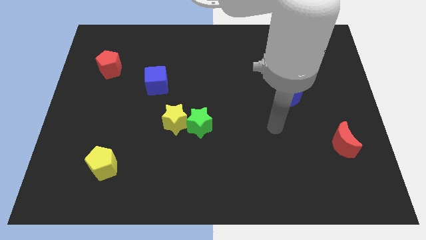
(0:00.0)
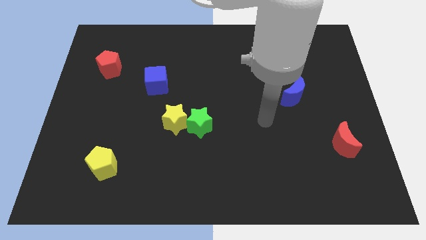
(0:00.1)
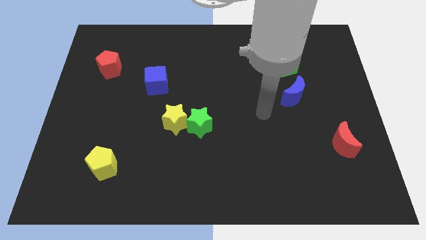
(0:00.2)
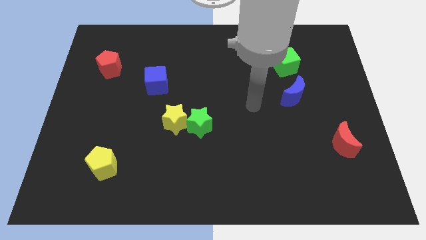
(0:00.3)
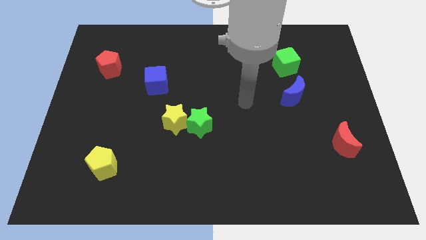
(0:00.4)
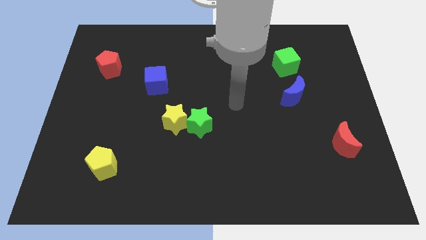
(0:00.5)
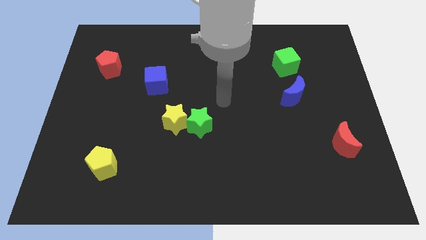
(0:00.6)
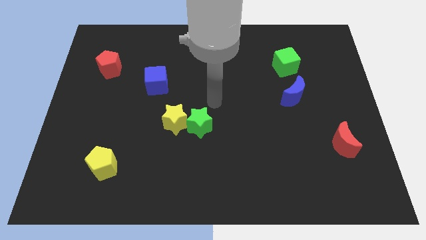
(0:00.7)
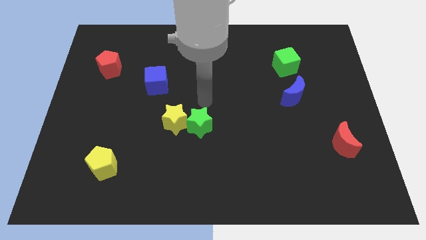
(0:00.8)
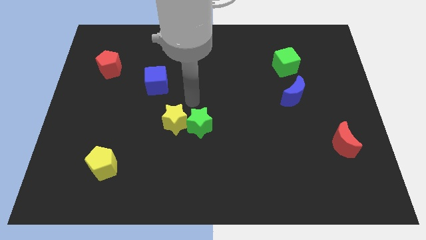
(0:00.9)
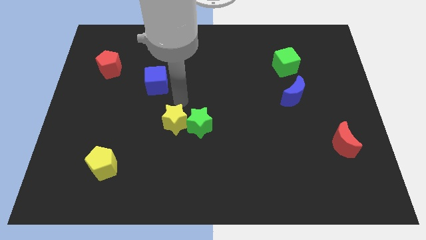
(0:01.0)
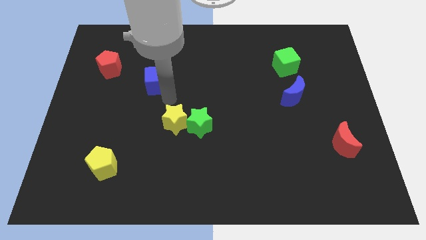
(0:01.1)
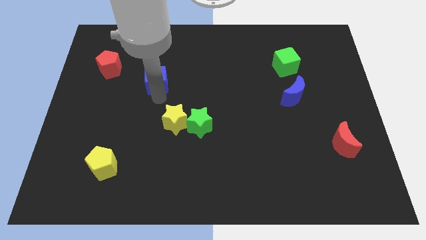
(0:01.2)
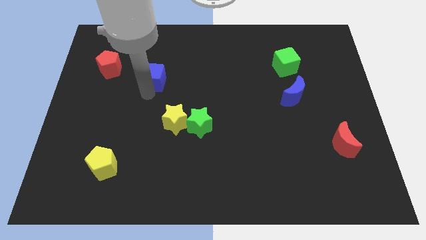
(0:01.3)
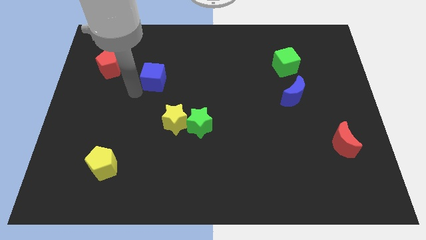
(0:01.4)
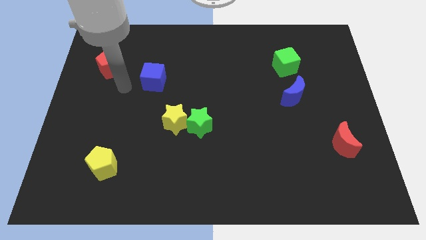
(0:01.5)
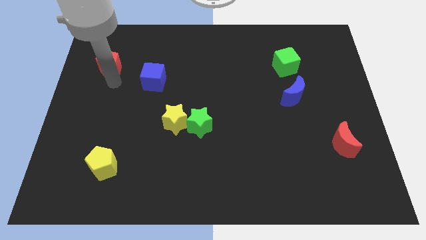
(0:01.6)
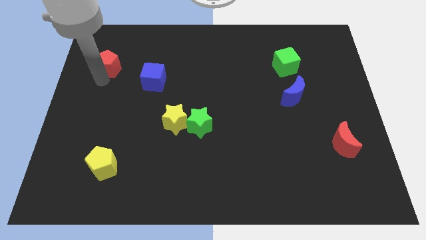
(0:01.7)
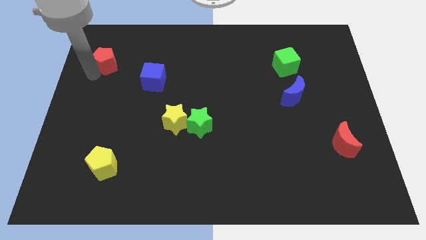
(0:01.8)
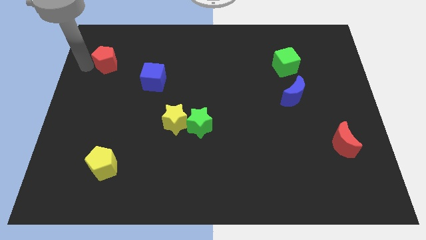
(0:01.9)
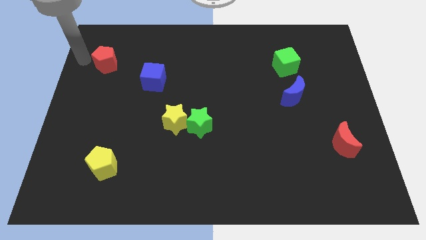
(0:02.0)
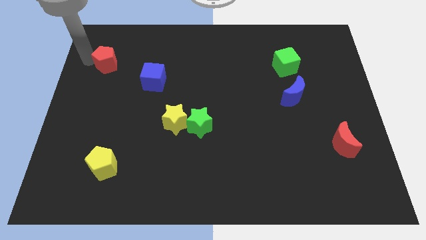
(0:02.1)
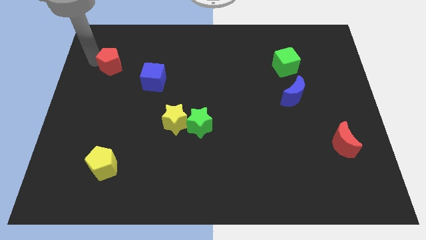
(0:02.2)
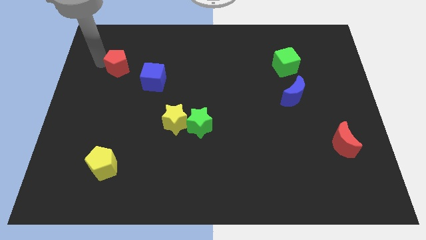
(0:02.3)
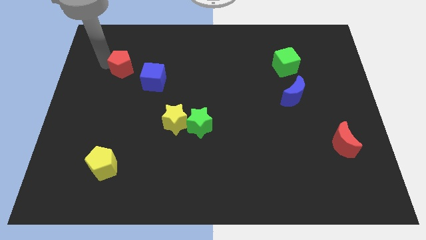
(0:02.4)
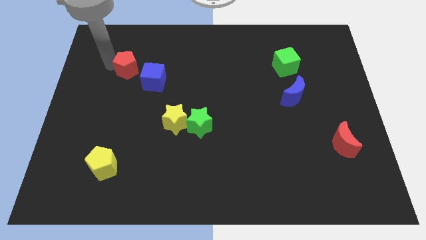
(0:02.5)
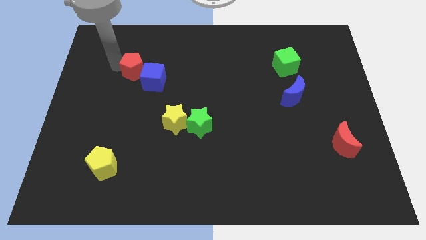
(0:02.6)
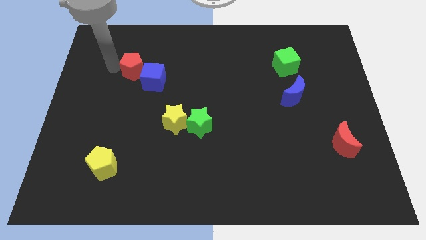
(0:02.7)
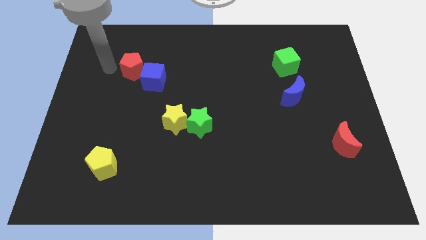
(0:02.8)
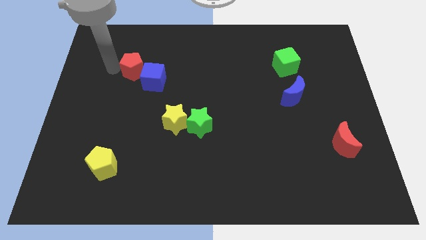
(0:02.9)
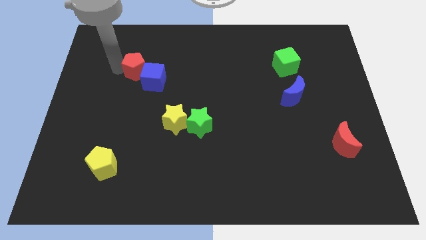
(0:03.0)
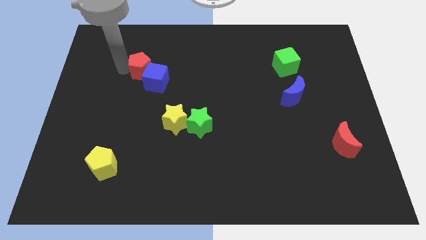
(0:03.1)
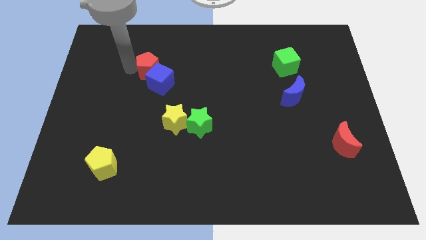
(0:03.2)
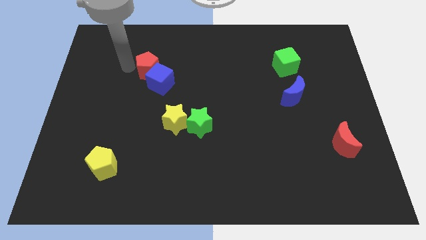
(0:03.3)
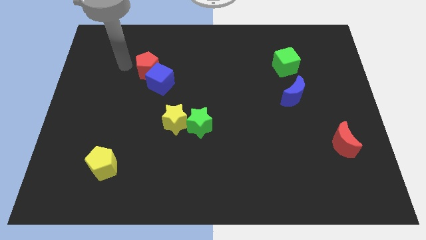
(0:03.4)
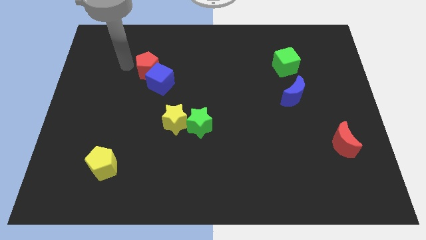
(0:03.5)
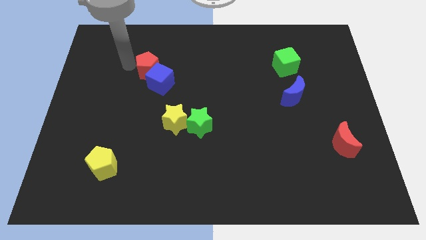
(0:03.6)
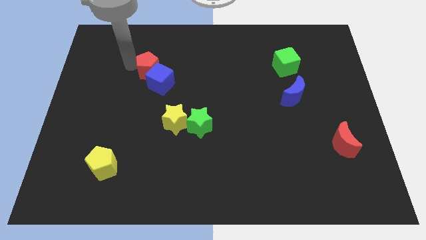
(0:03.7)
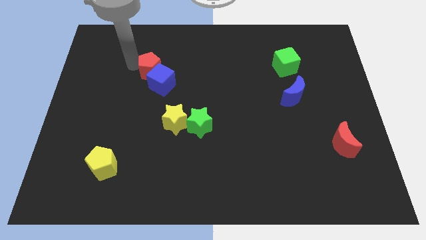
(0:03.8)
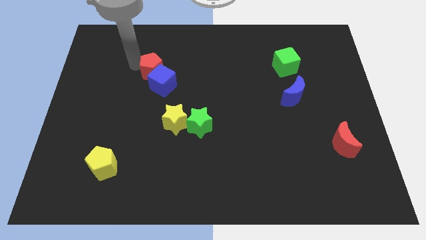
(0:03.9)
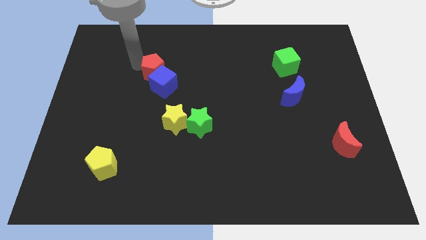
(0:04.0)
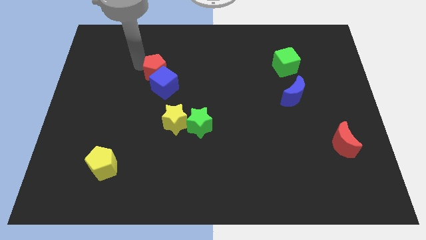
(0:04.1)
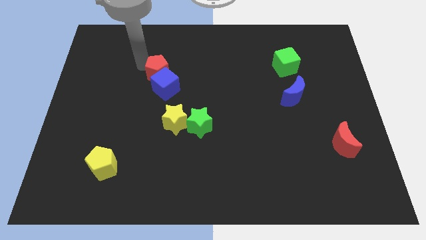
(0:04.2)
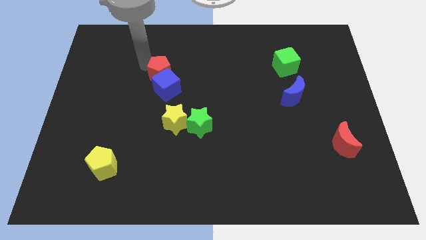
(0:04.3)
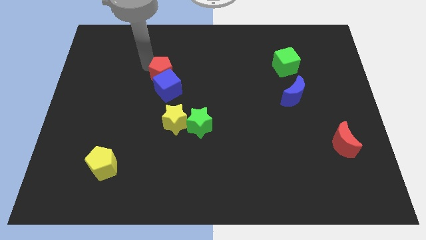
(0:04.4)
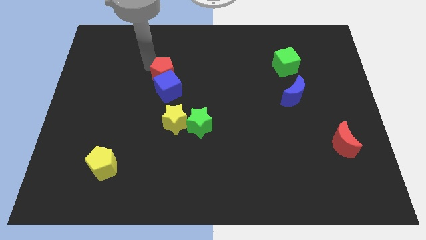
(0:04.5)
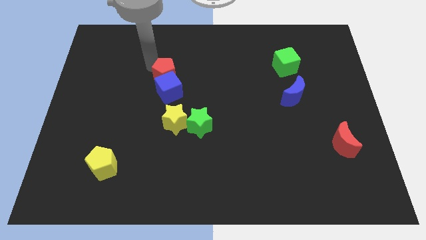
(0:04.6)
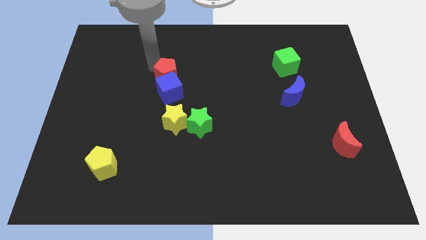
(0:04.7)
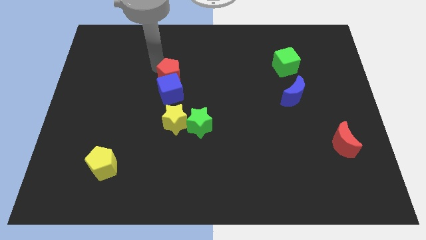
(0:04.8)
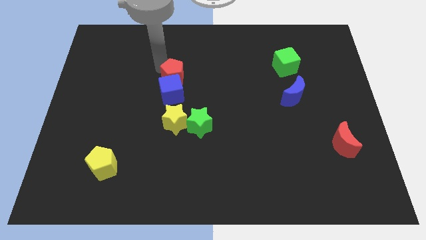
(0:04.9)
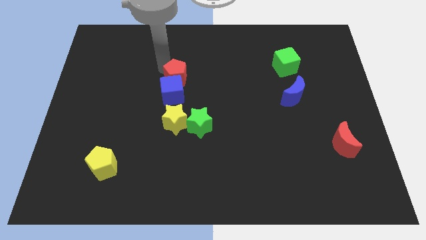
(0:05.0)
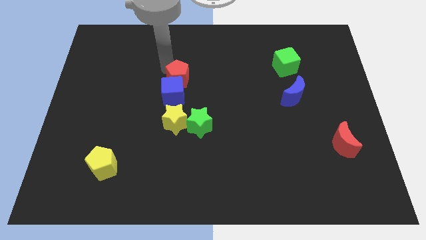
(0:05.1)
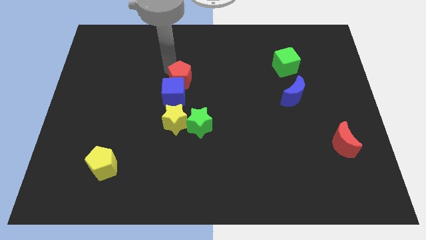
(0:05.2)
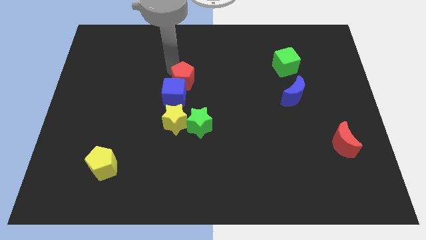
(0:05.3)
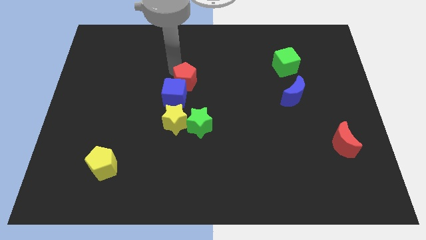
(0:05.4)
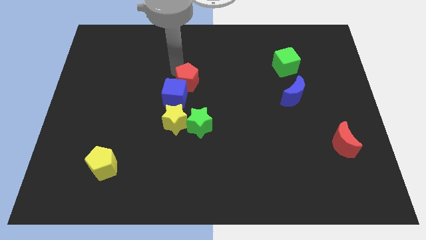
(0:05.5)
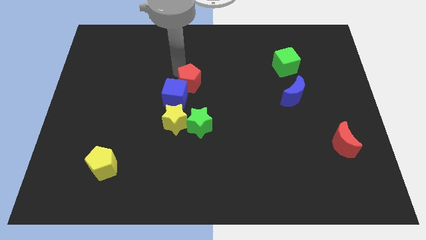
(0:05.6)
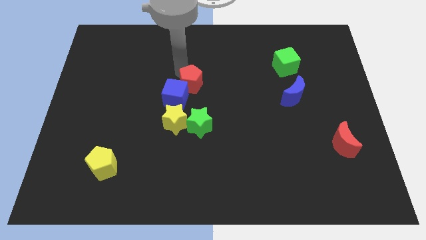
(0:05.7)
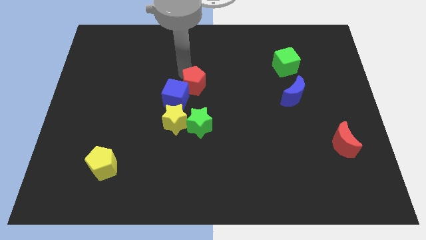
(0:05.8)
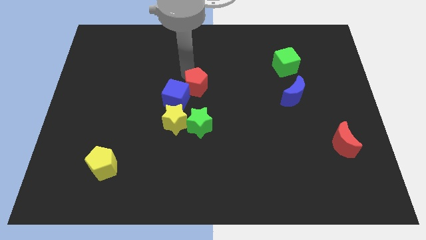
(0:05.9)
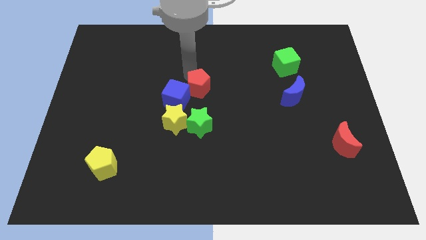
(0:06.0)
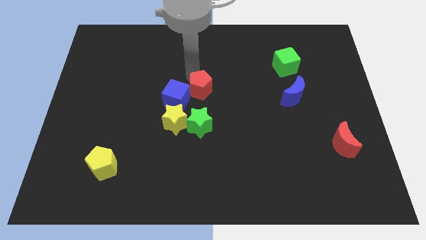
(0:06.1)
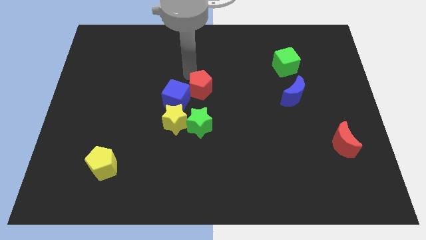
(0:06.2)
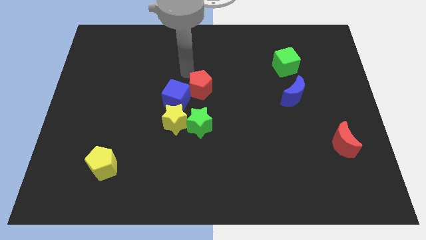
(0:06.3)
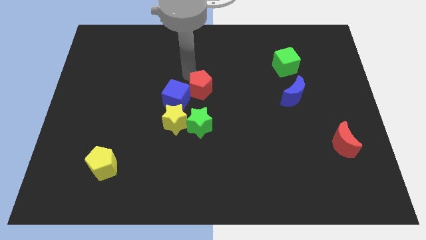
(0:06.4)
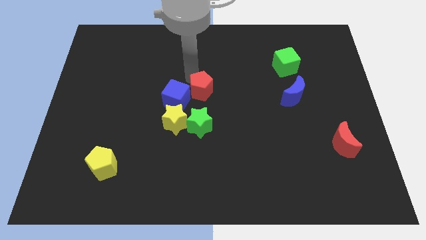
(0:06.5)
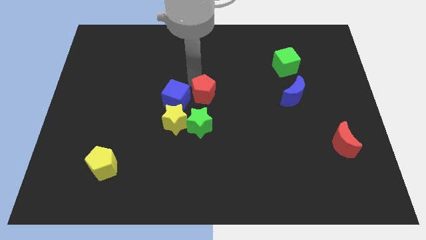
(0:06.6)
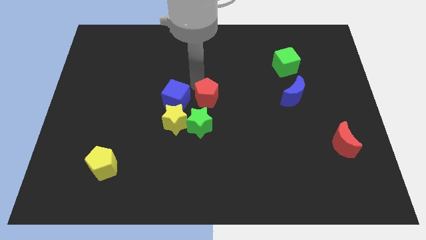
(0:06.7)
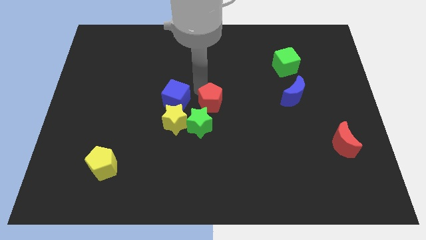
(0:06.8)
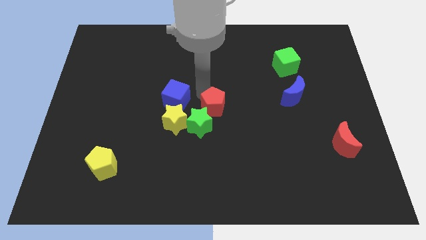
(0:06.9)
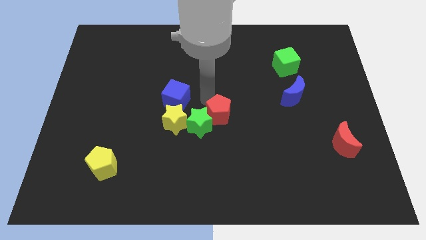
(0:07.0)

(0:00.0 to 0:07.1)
push the red pentagon just right of the green star
